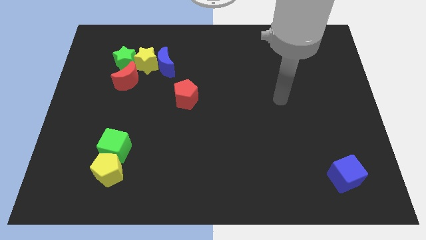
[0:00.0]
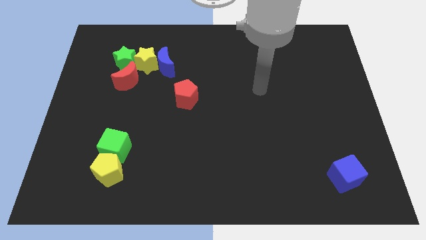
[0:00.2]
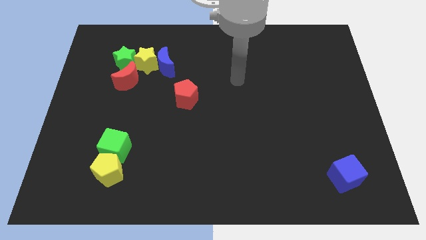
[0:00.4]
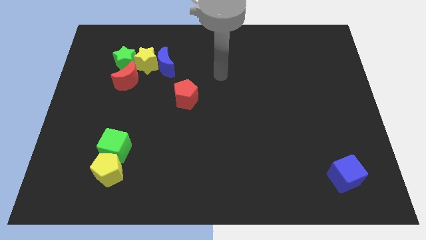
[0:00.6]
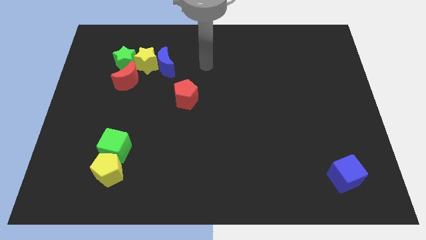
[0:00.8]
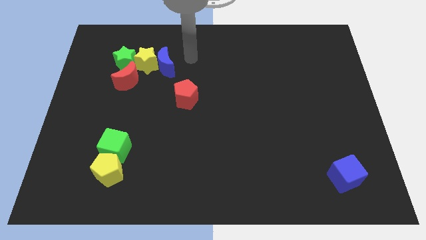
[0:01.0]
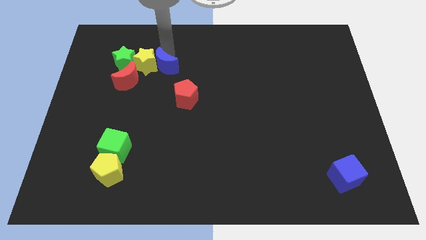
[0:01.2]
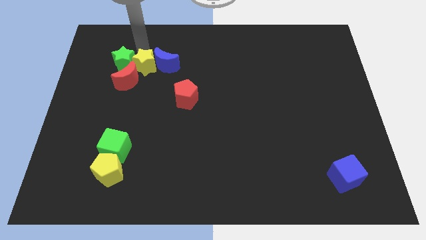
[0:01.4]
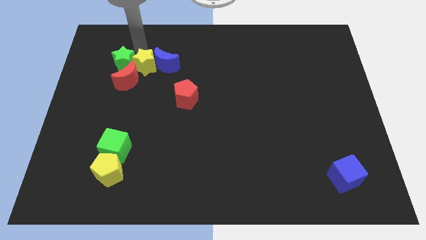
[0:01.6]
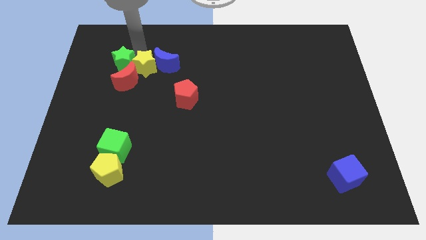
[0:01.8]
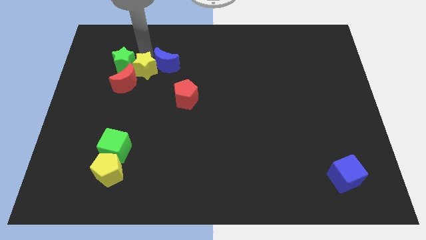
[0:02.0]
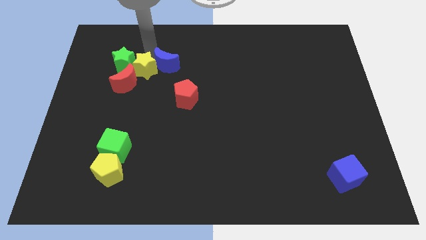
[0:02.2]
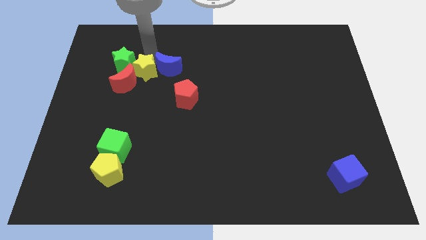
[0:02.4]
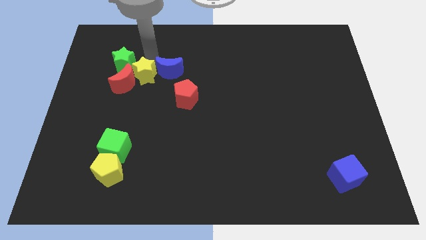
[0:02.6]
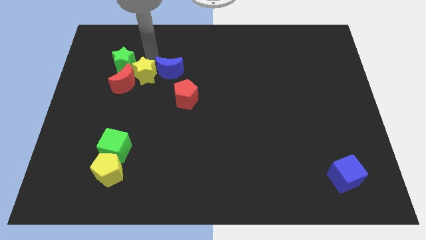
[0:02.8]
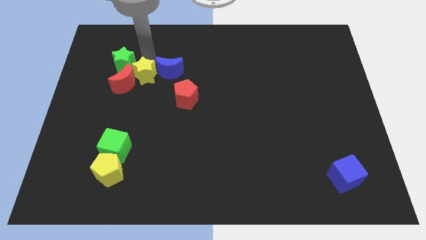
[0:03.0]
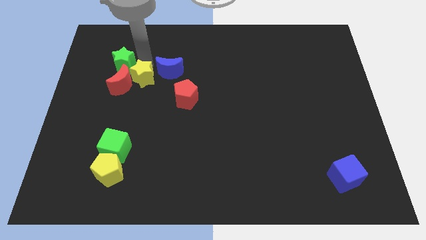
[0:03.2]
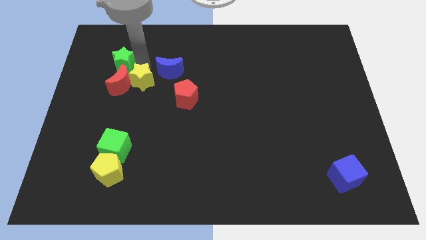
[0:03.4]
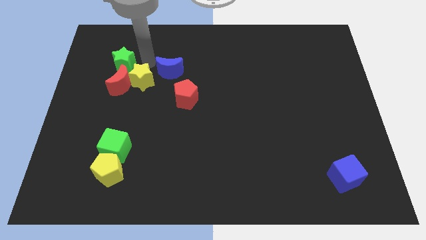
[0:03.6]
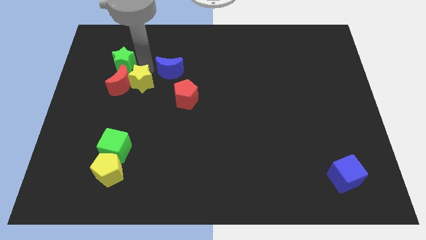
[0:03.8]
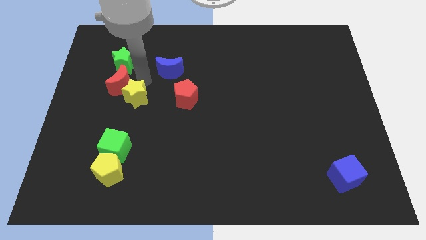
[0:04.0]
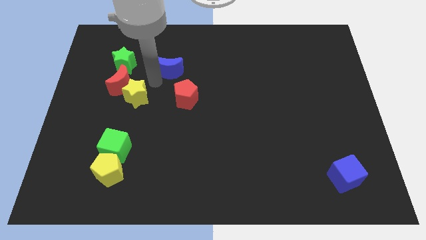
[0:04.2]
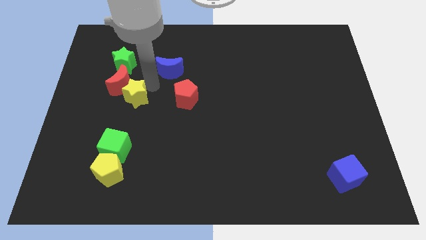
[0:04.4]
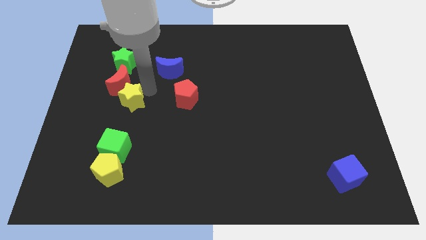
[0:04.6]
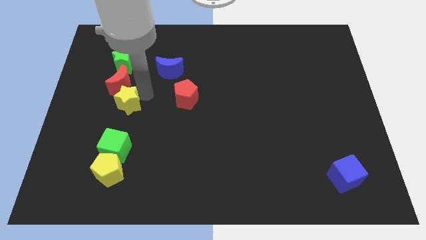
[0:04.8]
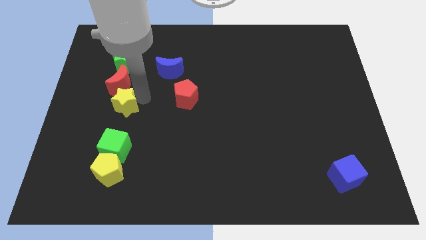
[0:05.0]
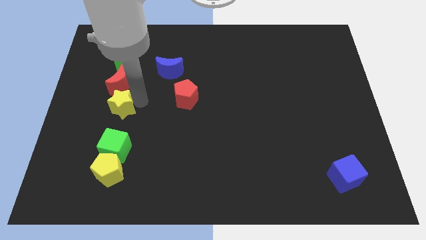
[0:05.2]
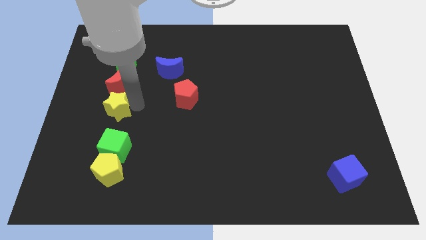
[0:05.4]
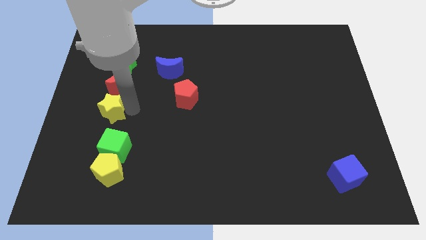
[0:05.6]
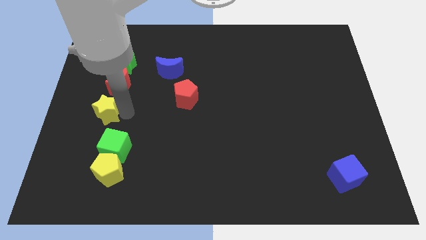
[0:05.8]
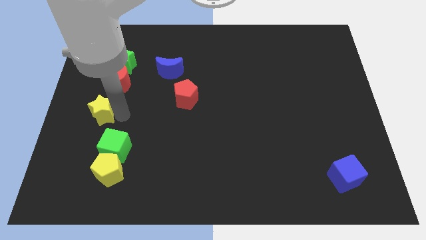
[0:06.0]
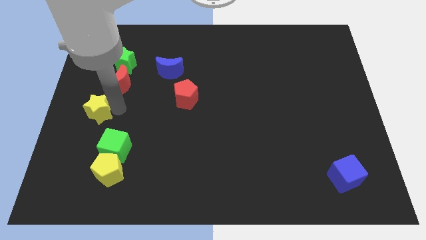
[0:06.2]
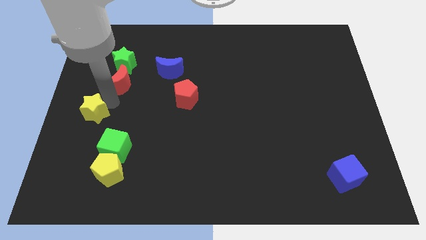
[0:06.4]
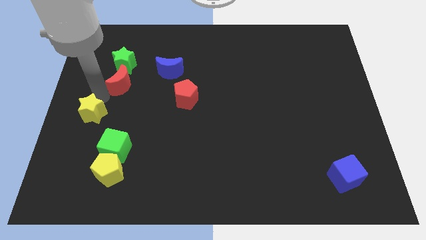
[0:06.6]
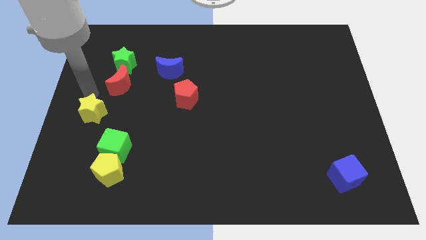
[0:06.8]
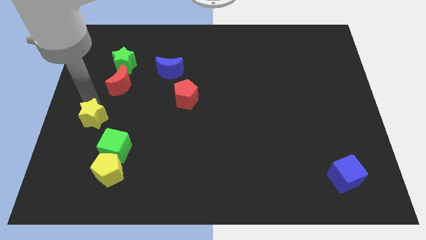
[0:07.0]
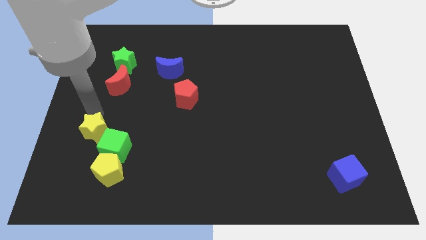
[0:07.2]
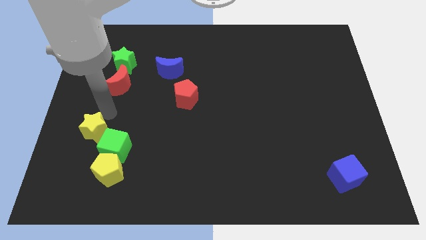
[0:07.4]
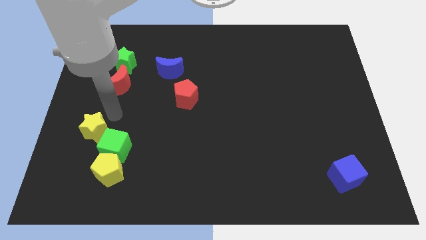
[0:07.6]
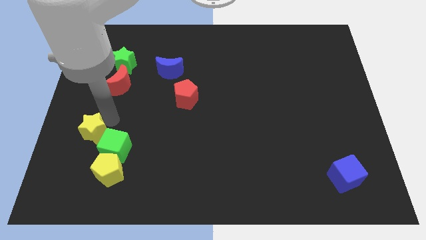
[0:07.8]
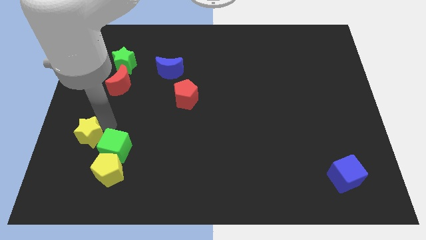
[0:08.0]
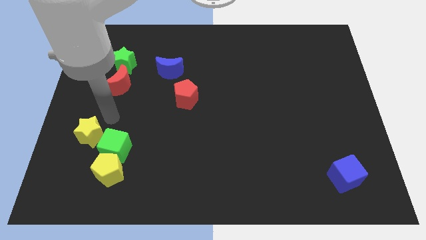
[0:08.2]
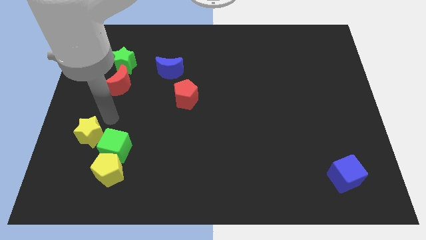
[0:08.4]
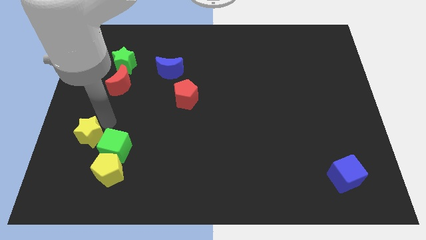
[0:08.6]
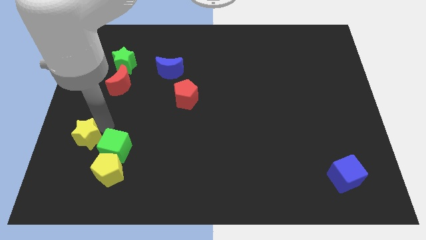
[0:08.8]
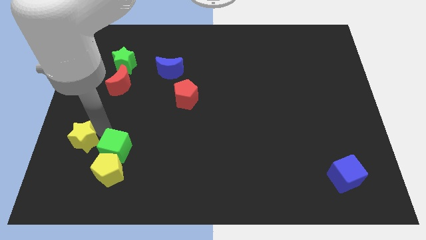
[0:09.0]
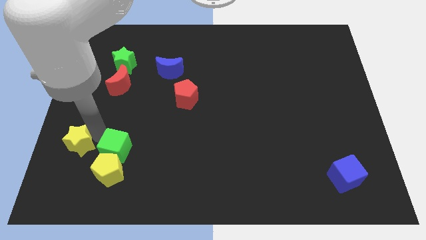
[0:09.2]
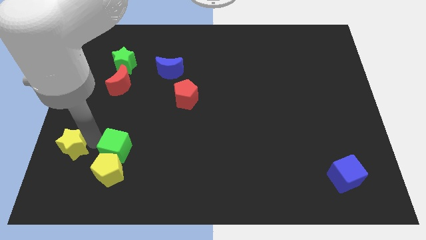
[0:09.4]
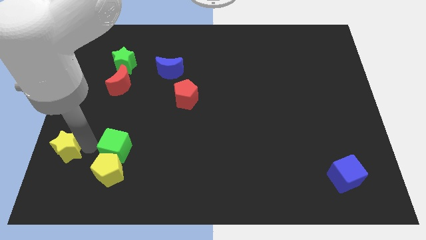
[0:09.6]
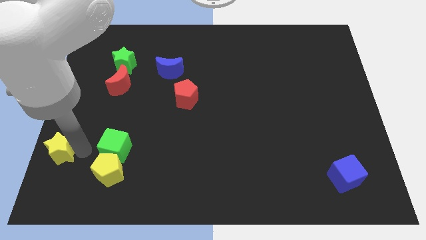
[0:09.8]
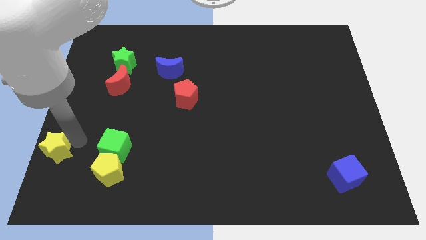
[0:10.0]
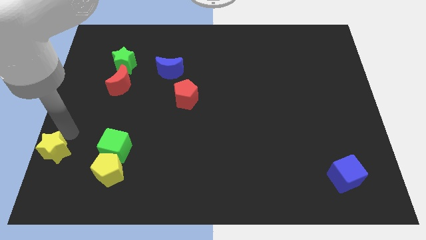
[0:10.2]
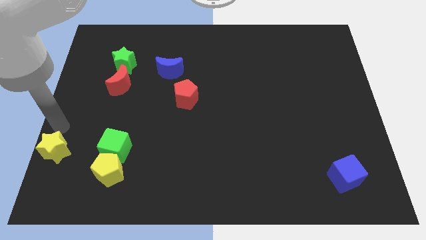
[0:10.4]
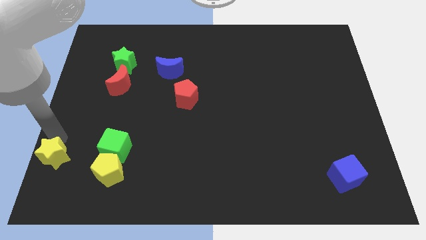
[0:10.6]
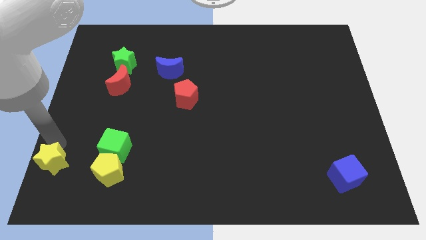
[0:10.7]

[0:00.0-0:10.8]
push the yellow star to the bottom left

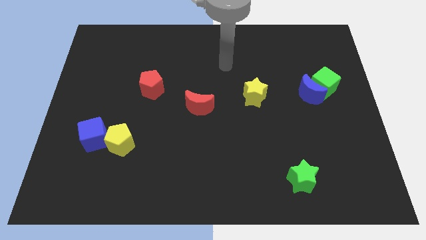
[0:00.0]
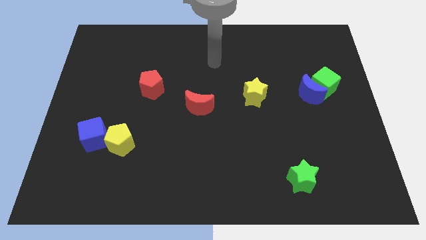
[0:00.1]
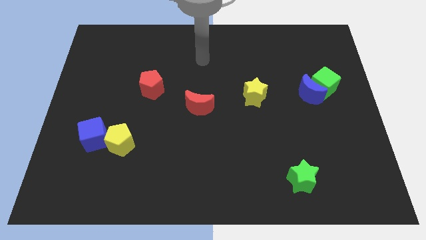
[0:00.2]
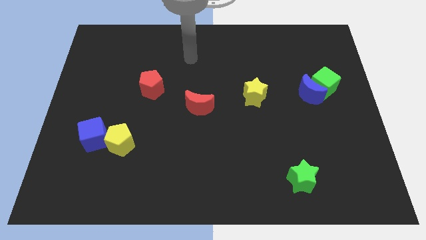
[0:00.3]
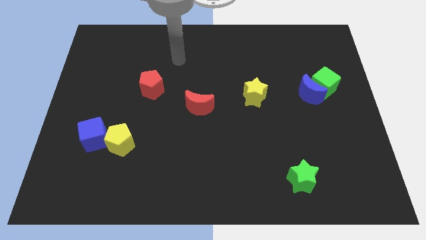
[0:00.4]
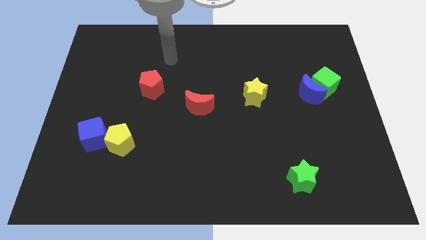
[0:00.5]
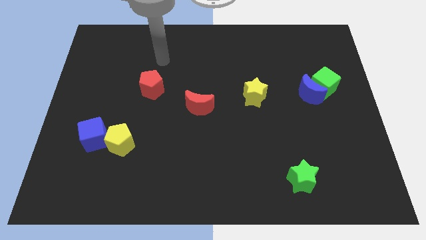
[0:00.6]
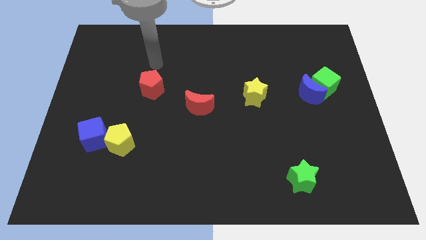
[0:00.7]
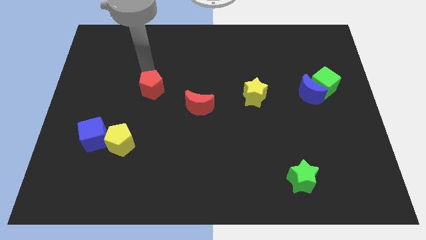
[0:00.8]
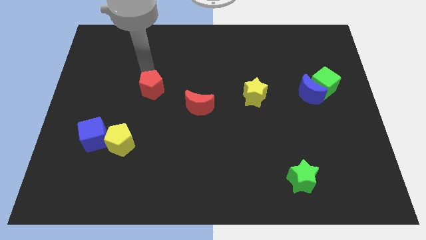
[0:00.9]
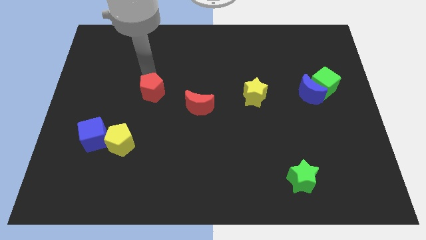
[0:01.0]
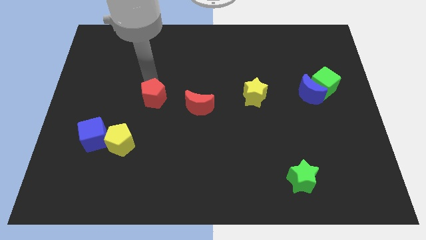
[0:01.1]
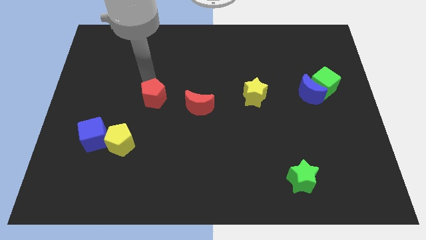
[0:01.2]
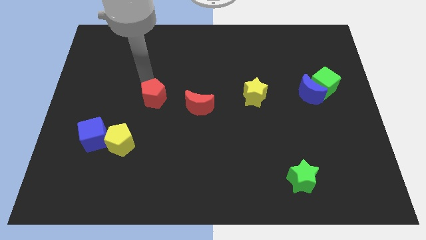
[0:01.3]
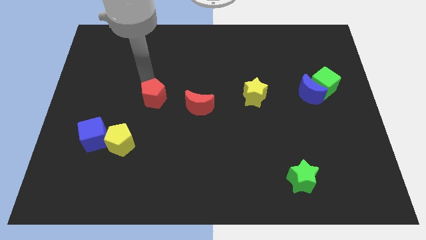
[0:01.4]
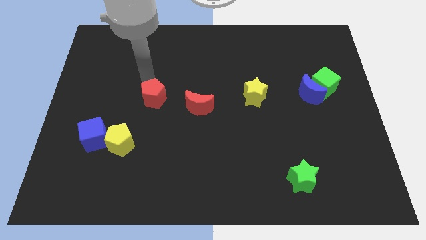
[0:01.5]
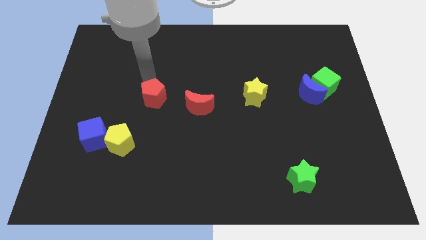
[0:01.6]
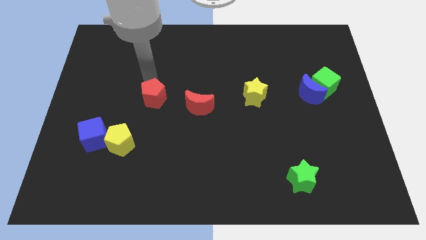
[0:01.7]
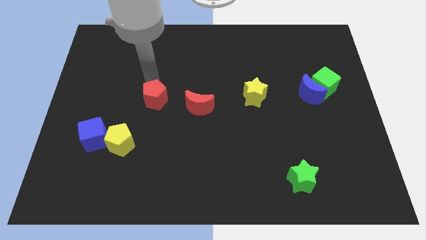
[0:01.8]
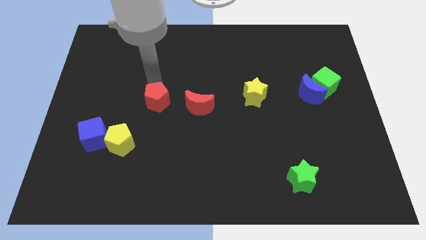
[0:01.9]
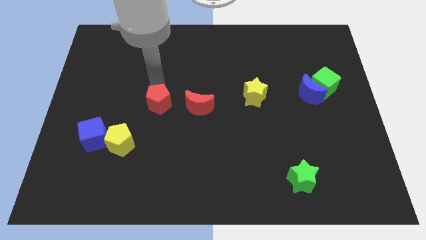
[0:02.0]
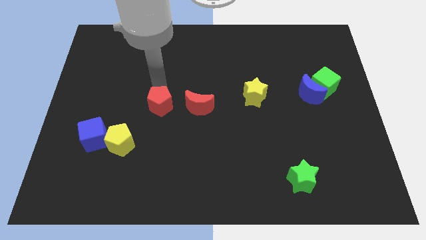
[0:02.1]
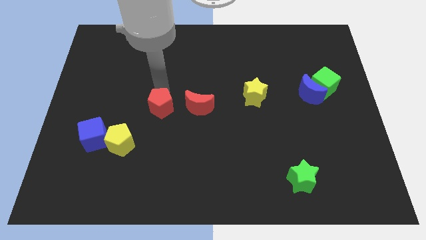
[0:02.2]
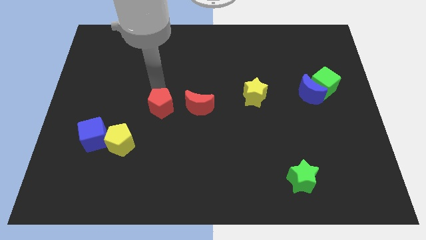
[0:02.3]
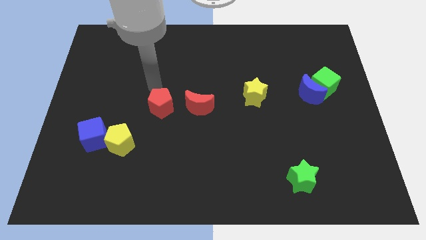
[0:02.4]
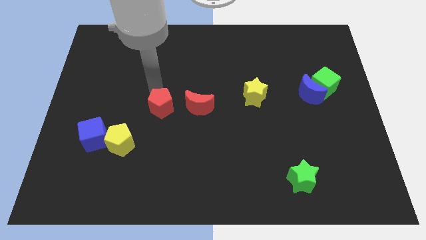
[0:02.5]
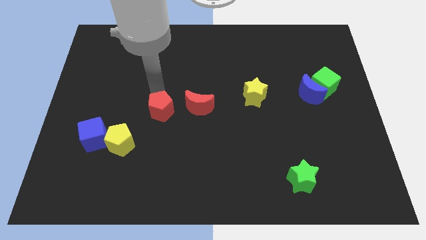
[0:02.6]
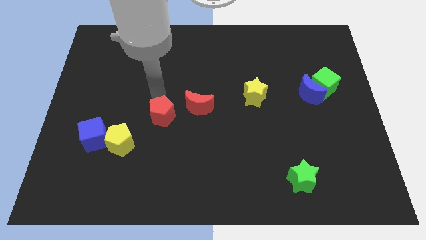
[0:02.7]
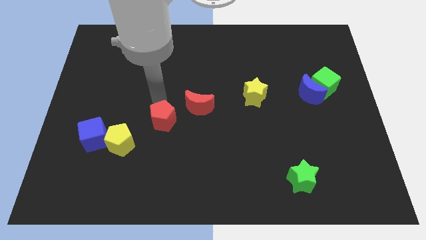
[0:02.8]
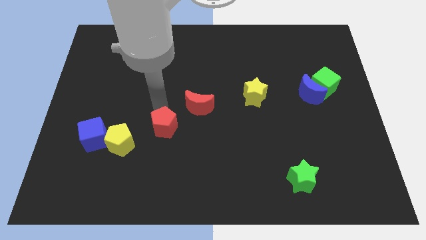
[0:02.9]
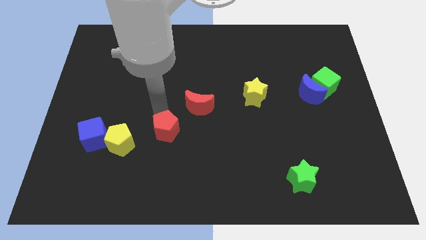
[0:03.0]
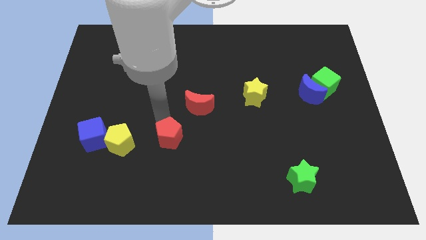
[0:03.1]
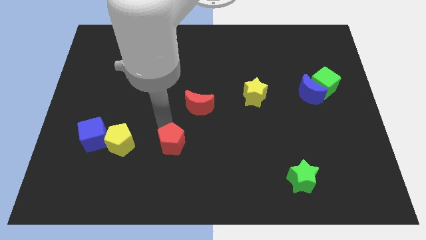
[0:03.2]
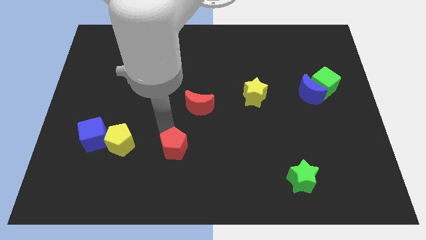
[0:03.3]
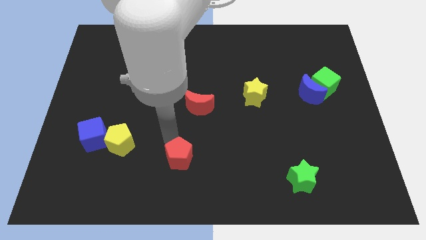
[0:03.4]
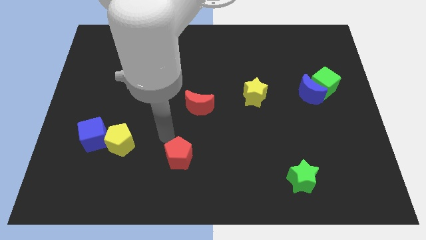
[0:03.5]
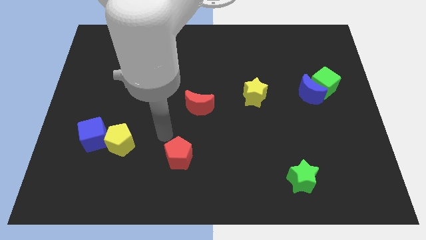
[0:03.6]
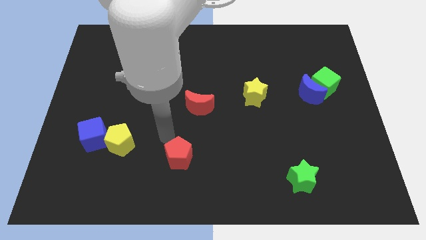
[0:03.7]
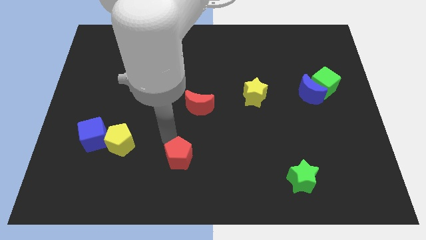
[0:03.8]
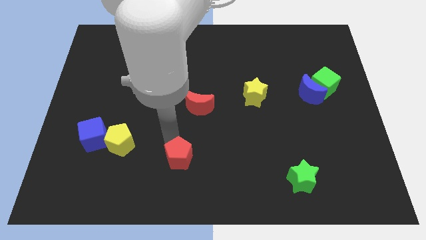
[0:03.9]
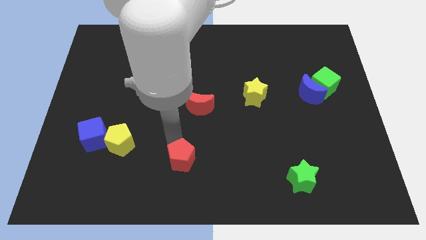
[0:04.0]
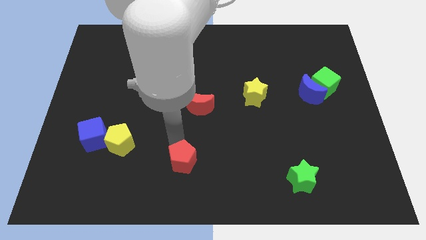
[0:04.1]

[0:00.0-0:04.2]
move the red pentagon to the bottom side
